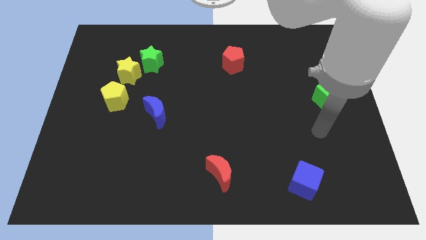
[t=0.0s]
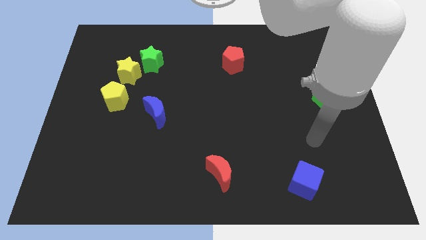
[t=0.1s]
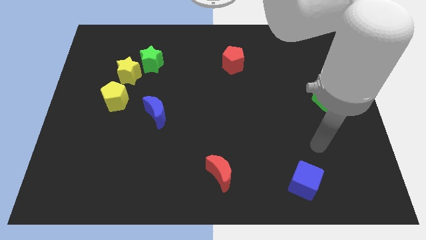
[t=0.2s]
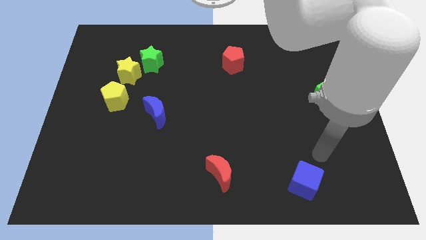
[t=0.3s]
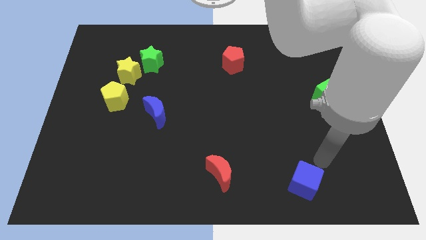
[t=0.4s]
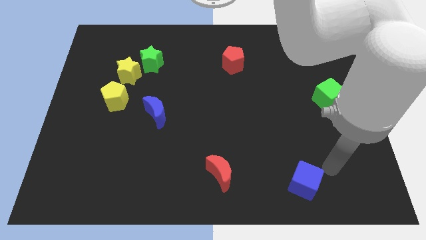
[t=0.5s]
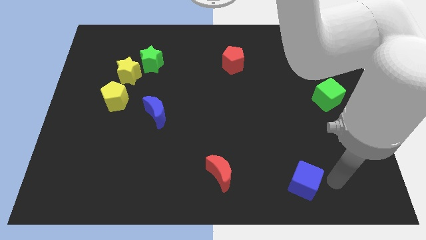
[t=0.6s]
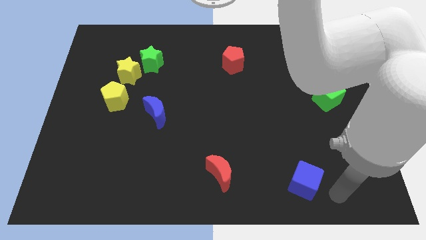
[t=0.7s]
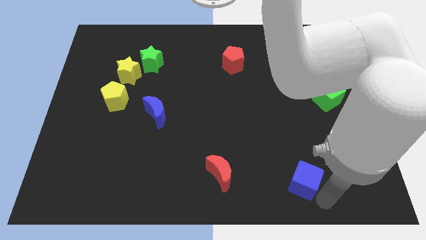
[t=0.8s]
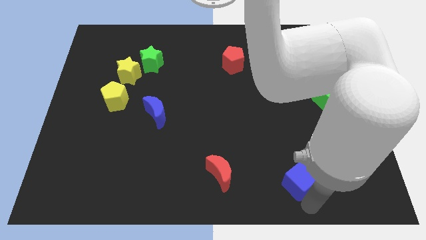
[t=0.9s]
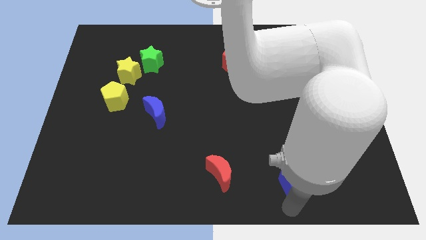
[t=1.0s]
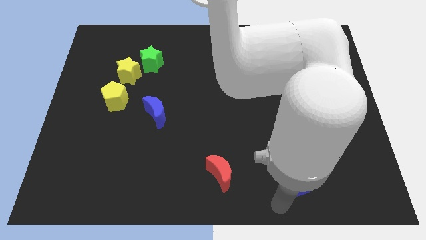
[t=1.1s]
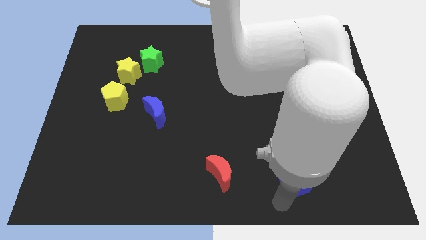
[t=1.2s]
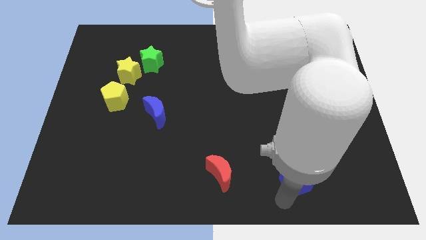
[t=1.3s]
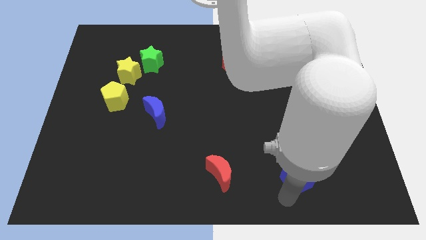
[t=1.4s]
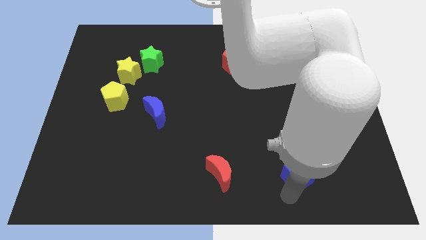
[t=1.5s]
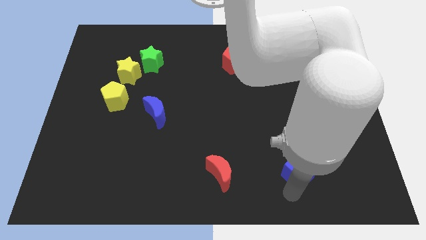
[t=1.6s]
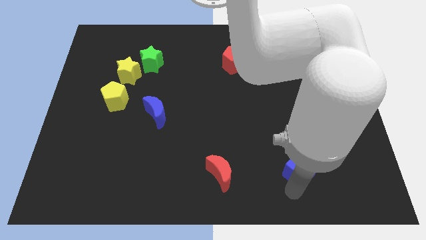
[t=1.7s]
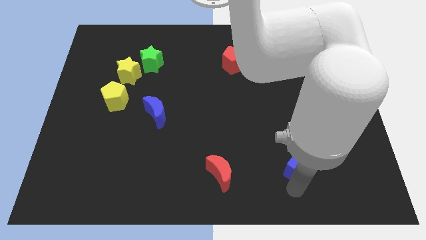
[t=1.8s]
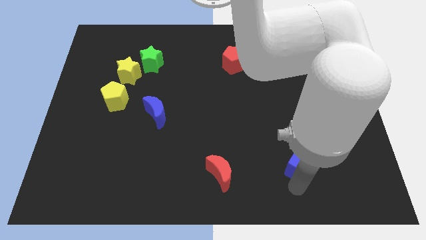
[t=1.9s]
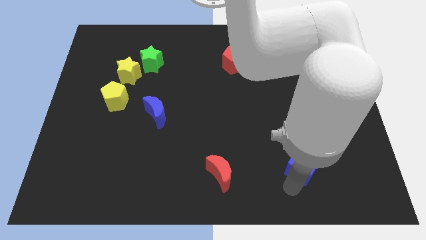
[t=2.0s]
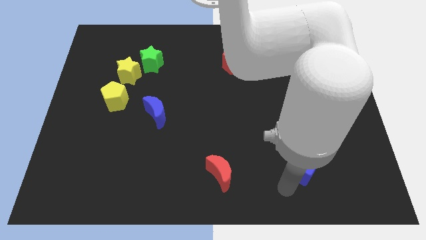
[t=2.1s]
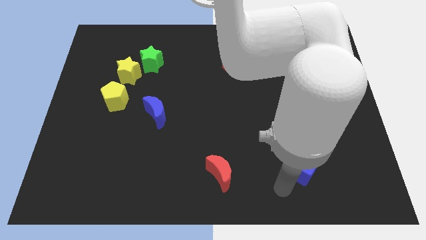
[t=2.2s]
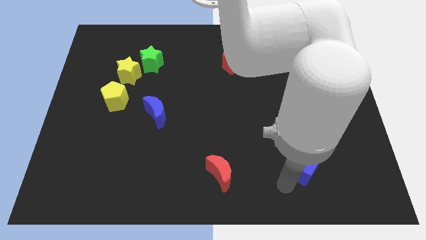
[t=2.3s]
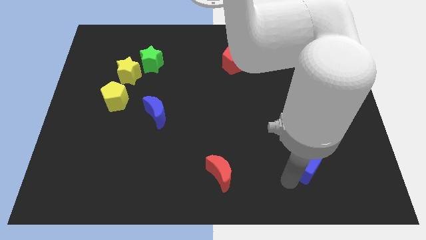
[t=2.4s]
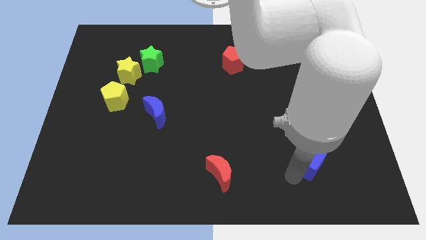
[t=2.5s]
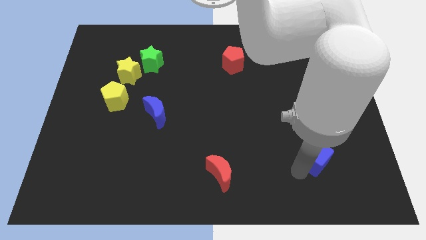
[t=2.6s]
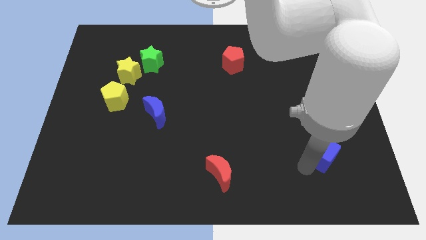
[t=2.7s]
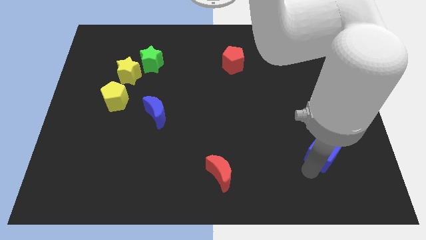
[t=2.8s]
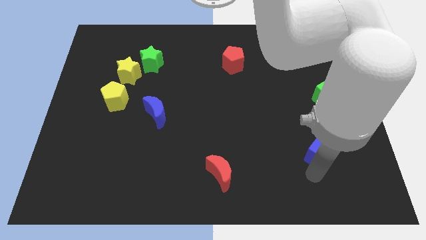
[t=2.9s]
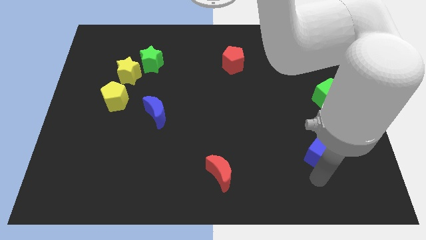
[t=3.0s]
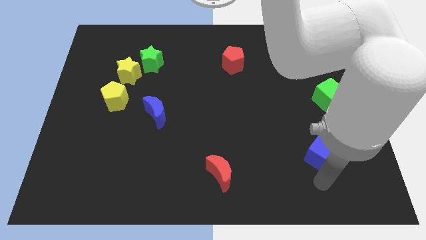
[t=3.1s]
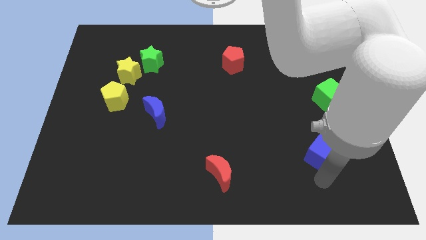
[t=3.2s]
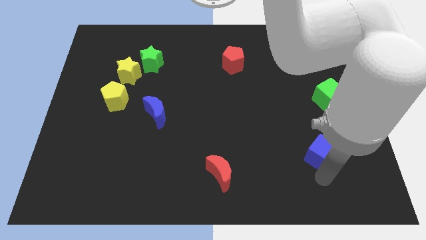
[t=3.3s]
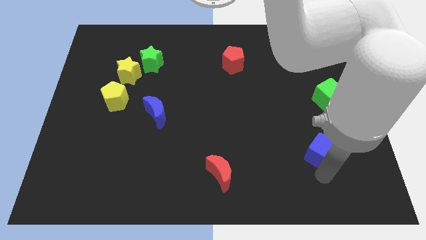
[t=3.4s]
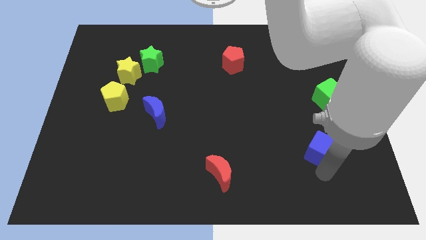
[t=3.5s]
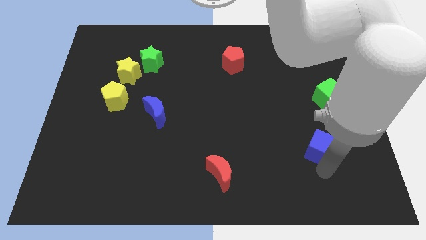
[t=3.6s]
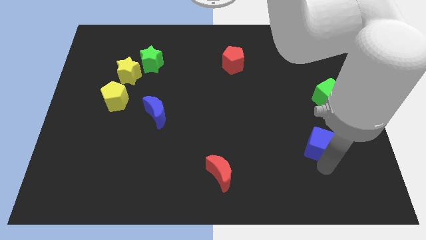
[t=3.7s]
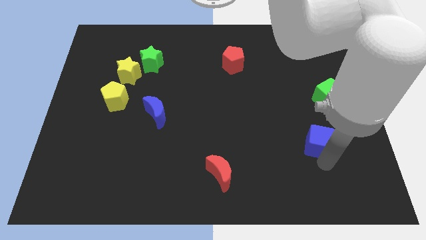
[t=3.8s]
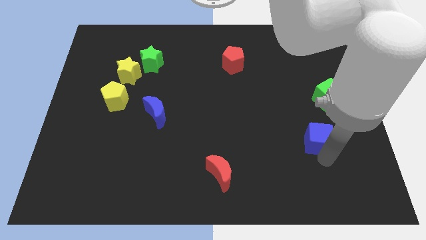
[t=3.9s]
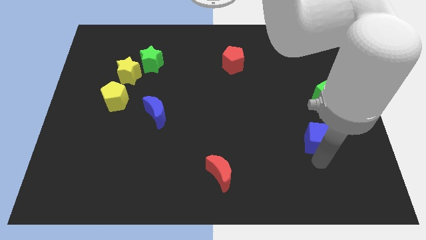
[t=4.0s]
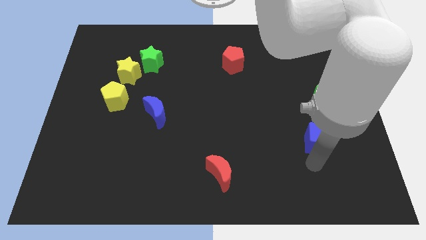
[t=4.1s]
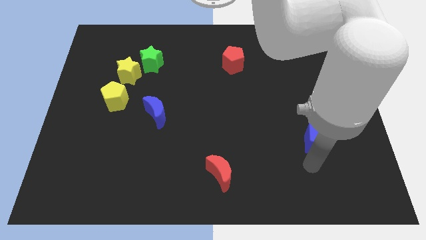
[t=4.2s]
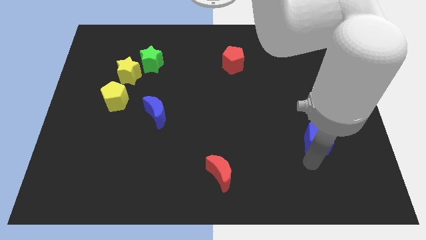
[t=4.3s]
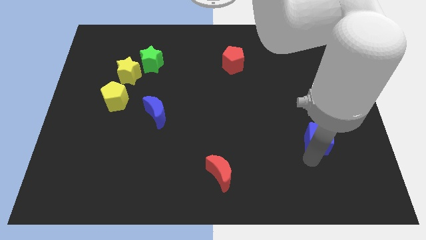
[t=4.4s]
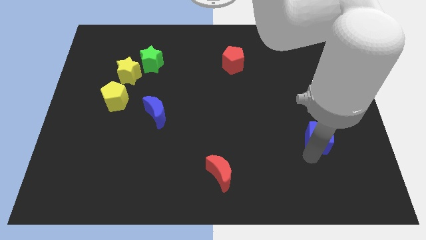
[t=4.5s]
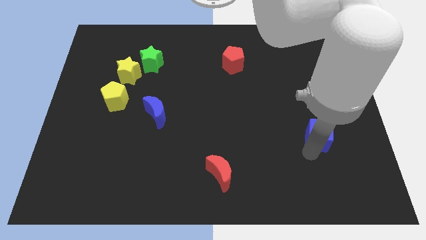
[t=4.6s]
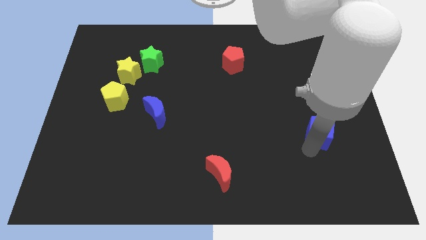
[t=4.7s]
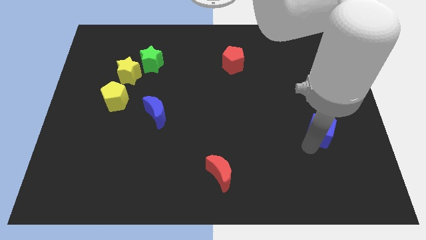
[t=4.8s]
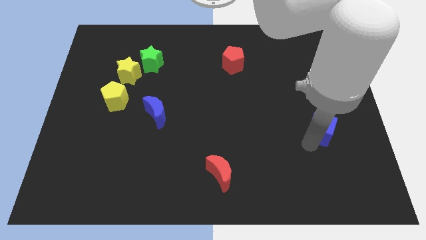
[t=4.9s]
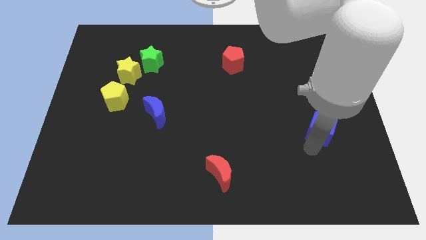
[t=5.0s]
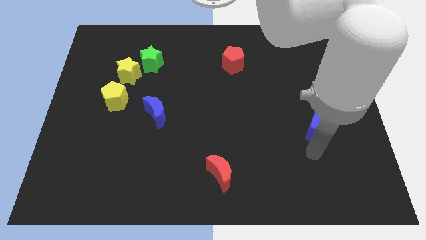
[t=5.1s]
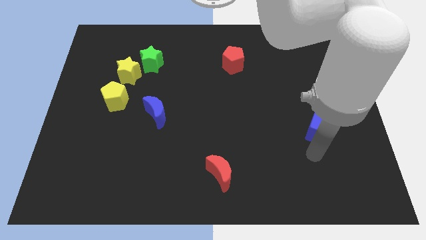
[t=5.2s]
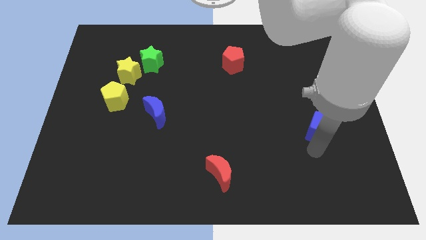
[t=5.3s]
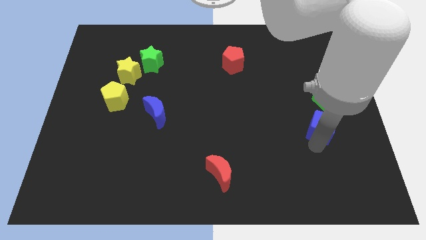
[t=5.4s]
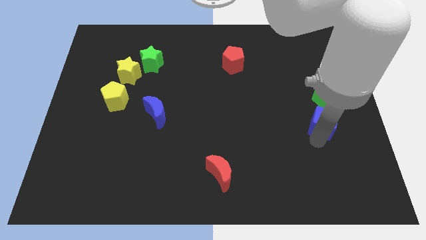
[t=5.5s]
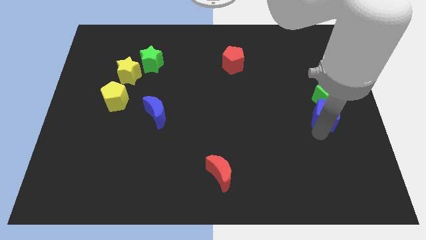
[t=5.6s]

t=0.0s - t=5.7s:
push the blue cube to the green cube

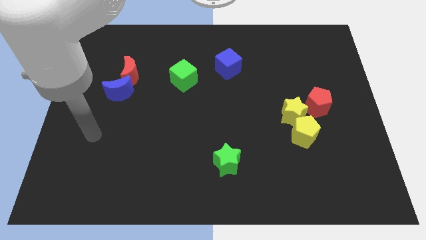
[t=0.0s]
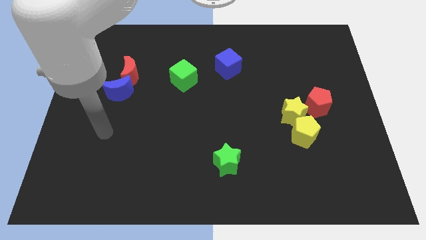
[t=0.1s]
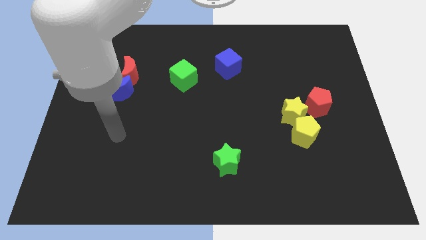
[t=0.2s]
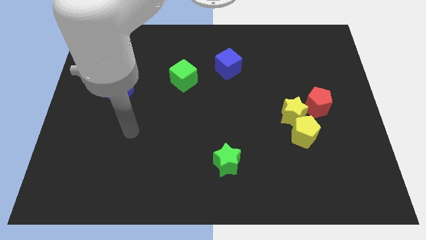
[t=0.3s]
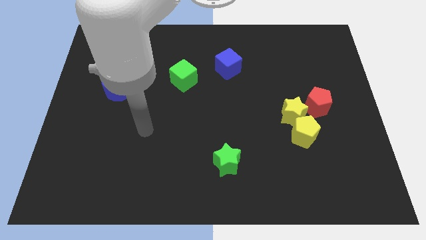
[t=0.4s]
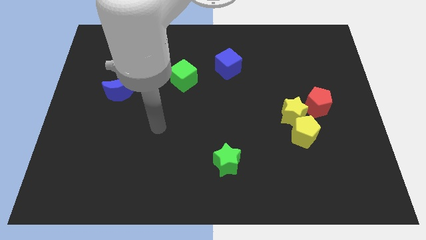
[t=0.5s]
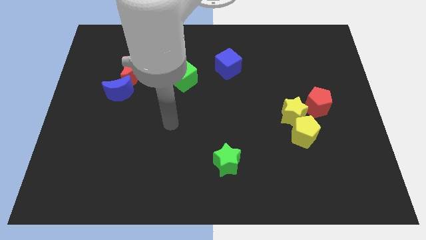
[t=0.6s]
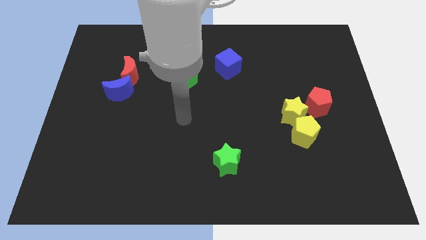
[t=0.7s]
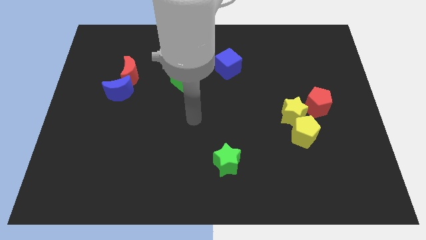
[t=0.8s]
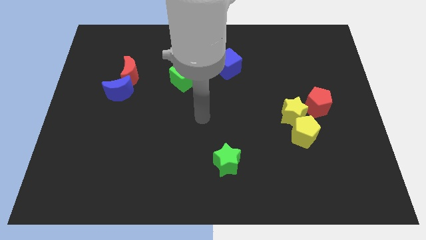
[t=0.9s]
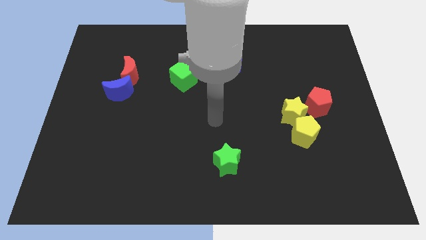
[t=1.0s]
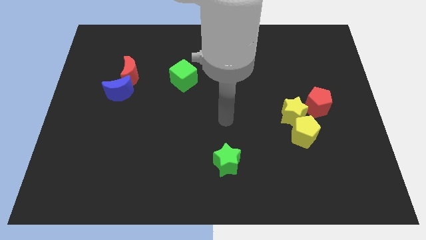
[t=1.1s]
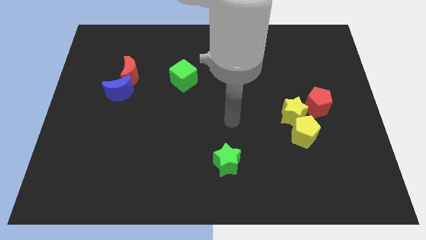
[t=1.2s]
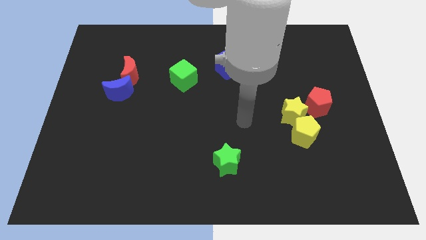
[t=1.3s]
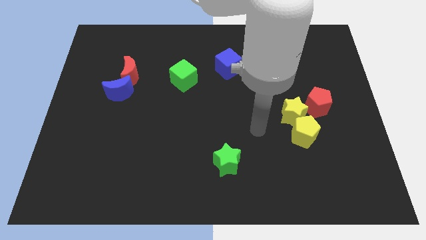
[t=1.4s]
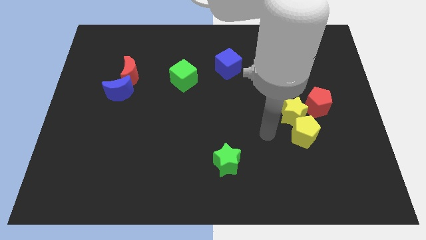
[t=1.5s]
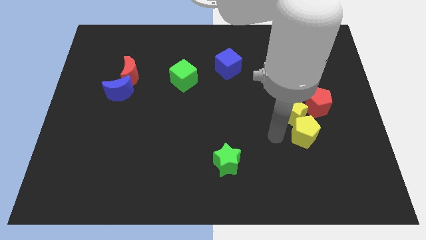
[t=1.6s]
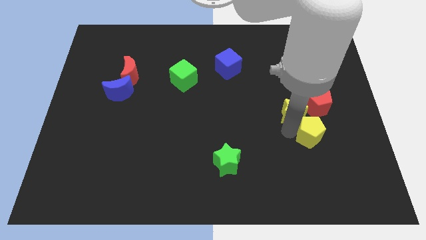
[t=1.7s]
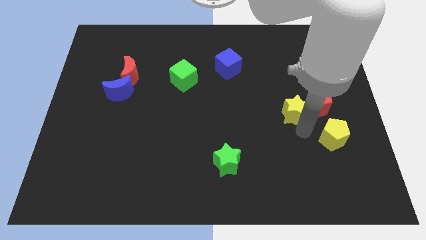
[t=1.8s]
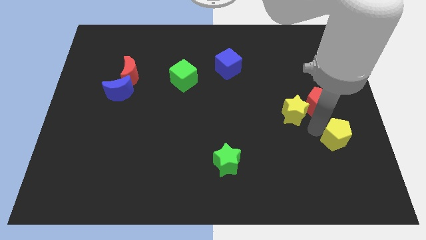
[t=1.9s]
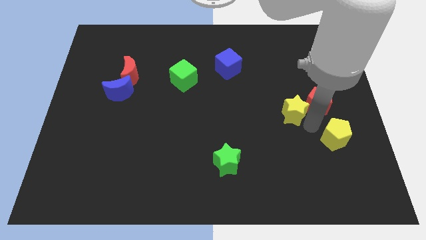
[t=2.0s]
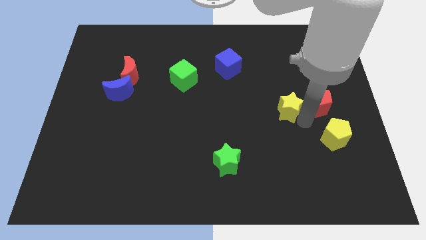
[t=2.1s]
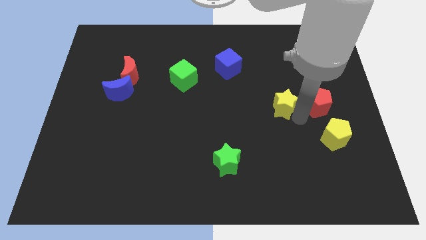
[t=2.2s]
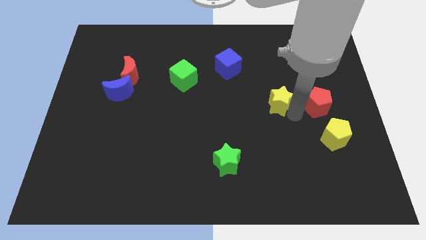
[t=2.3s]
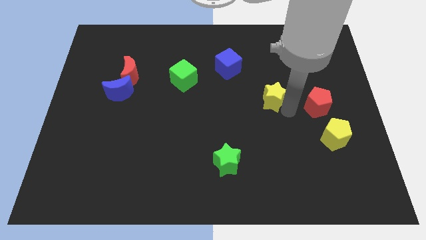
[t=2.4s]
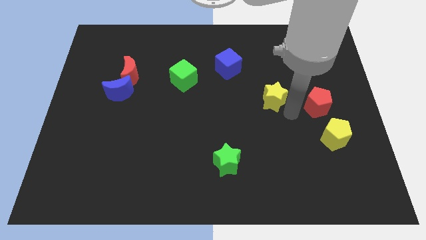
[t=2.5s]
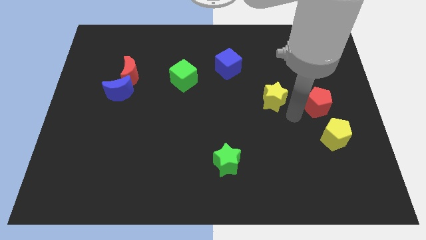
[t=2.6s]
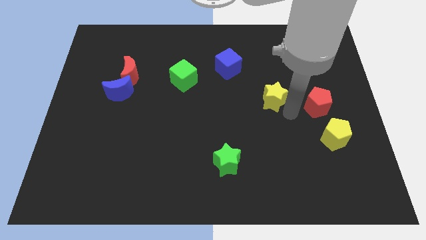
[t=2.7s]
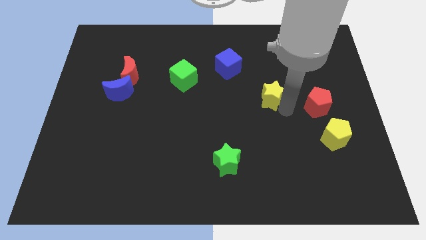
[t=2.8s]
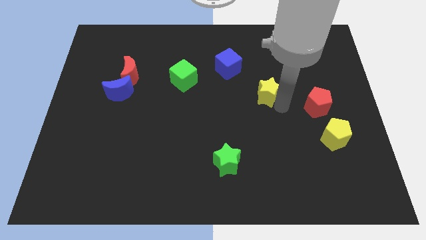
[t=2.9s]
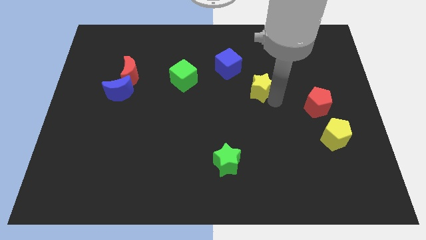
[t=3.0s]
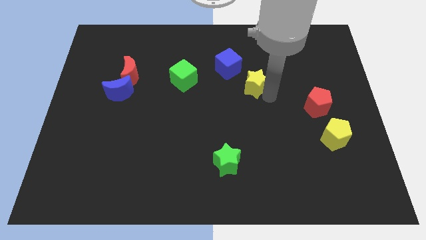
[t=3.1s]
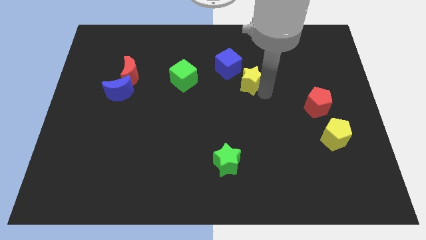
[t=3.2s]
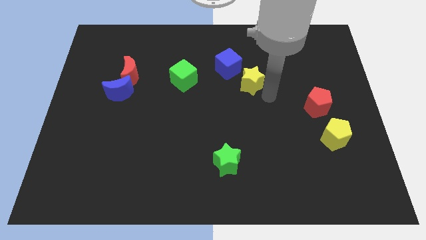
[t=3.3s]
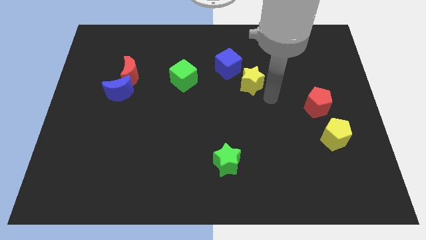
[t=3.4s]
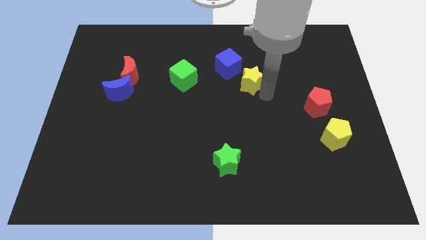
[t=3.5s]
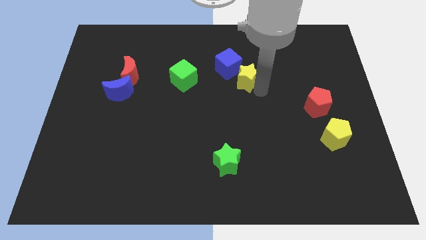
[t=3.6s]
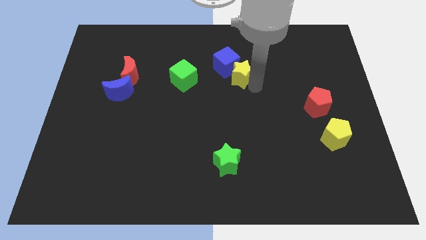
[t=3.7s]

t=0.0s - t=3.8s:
slide the yellow star next to the blue cube
